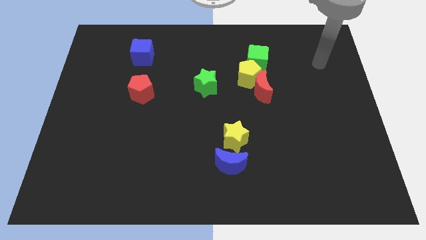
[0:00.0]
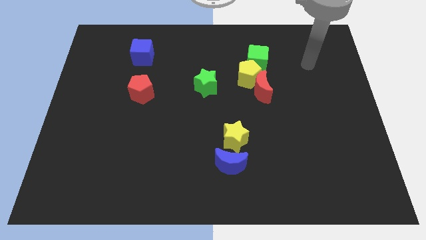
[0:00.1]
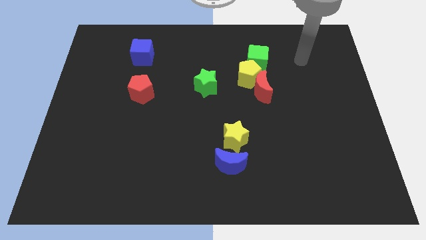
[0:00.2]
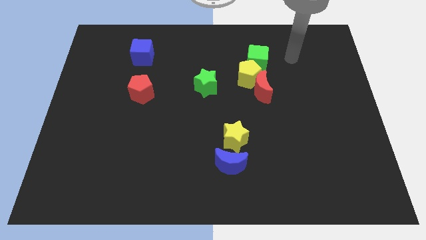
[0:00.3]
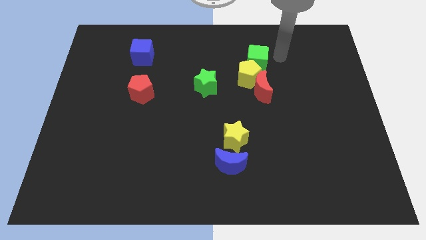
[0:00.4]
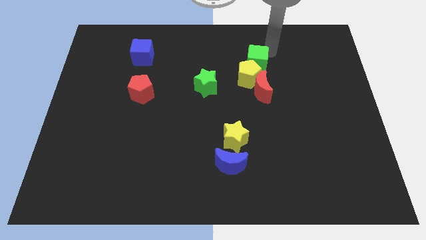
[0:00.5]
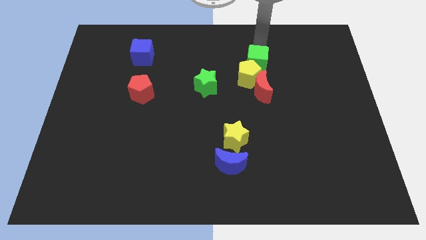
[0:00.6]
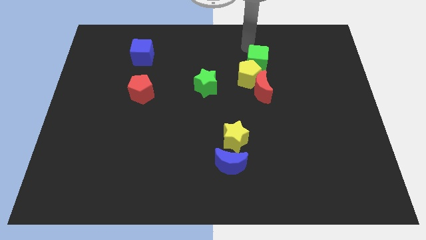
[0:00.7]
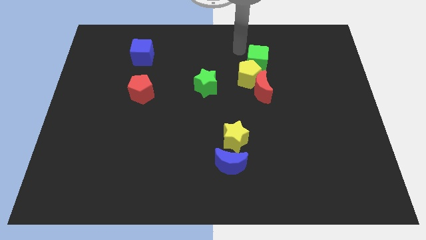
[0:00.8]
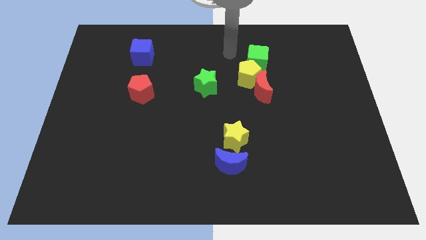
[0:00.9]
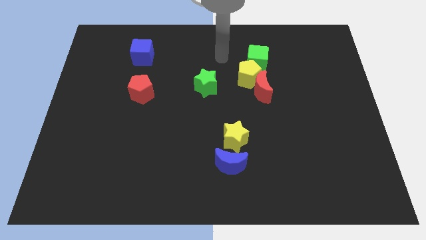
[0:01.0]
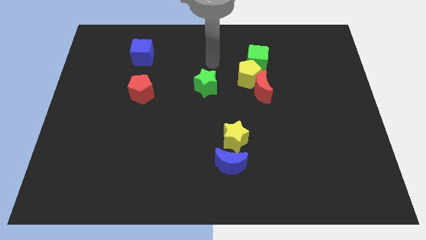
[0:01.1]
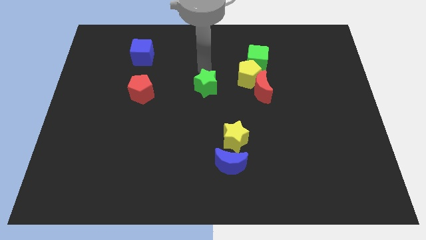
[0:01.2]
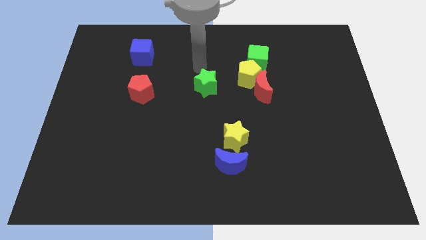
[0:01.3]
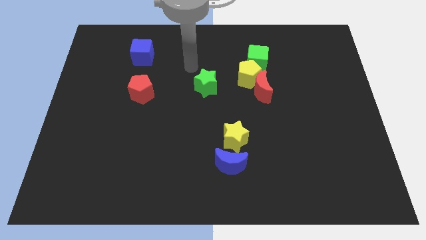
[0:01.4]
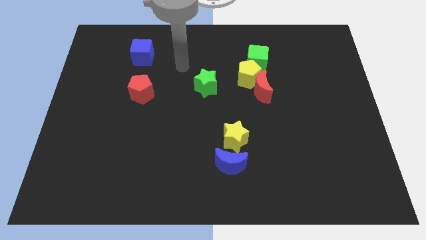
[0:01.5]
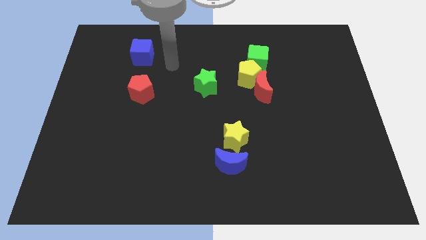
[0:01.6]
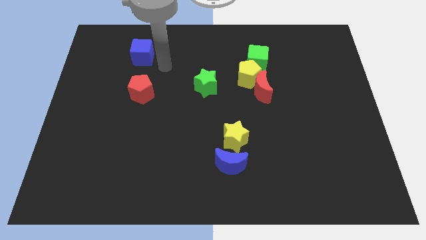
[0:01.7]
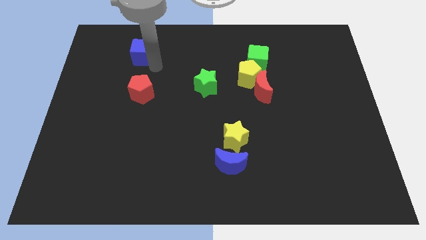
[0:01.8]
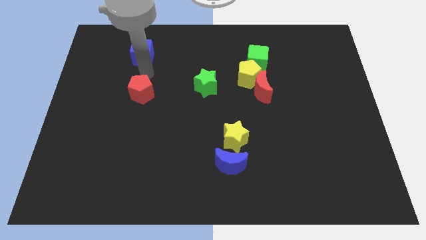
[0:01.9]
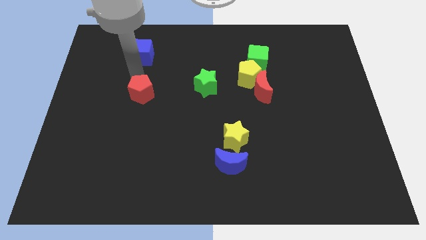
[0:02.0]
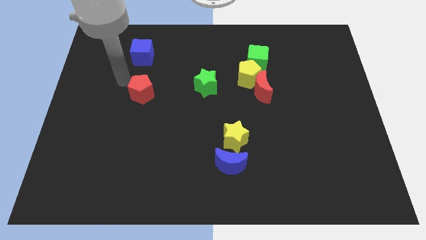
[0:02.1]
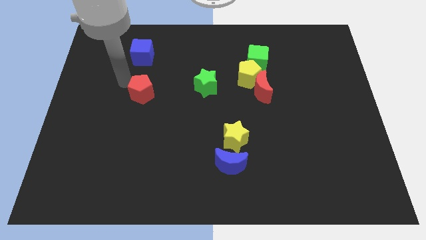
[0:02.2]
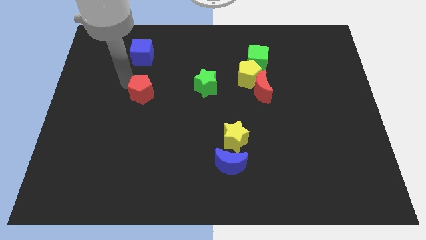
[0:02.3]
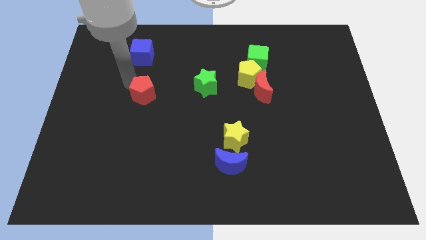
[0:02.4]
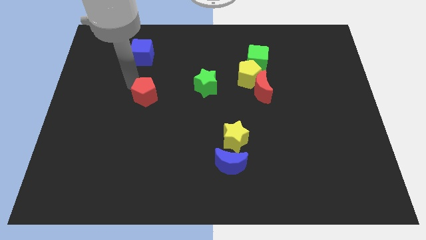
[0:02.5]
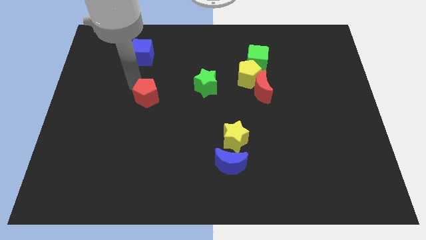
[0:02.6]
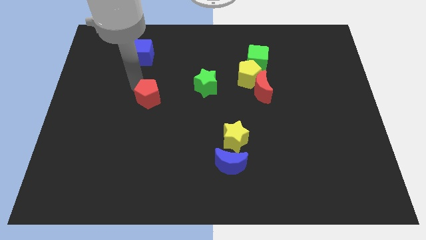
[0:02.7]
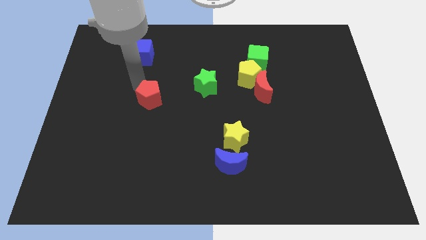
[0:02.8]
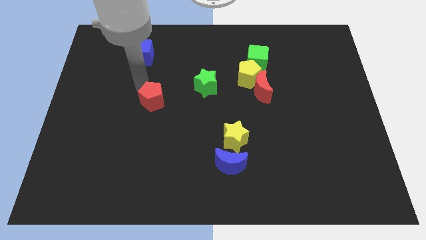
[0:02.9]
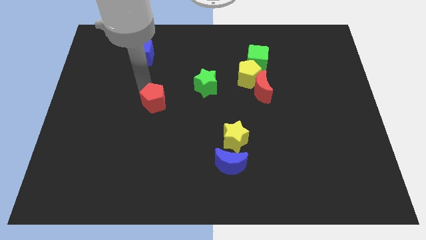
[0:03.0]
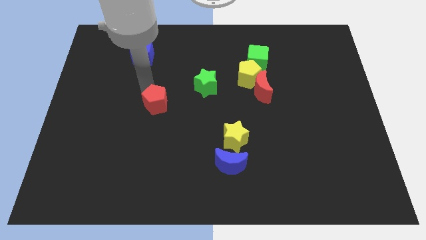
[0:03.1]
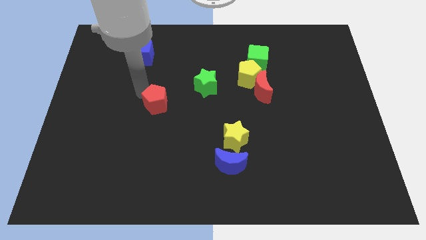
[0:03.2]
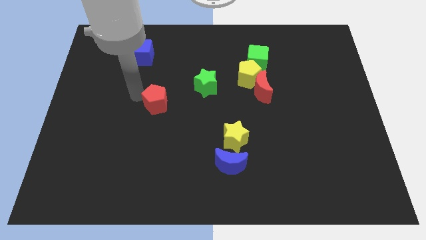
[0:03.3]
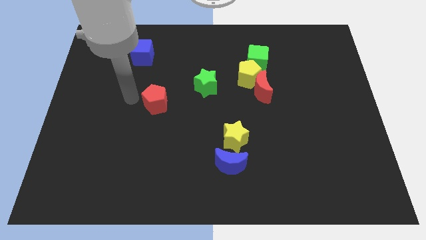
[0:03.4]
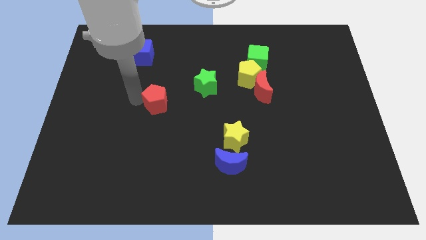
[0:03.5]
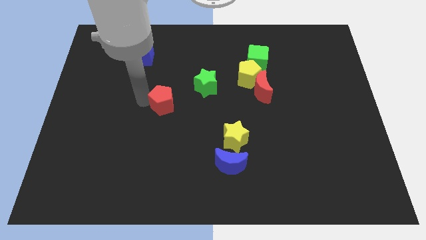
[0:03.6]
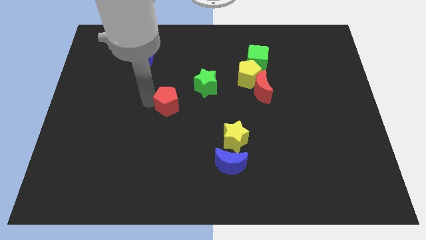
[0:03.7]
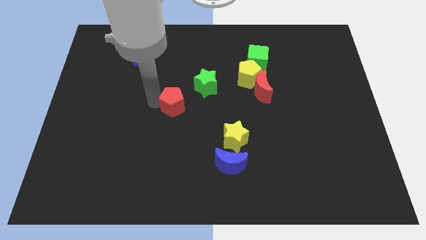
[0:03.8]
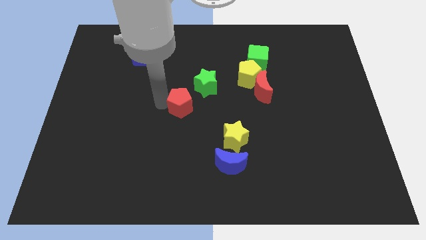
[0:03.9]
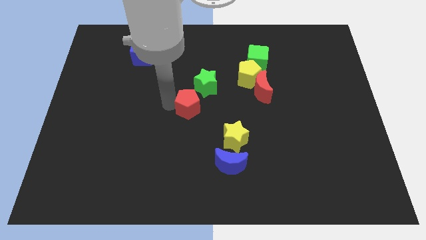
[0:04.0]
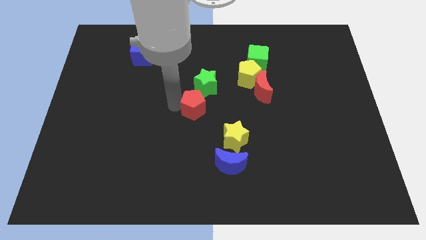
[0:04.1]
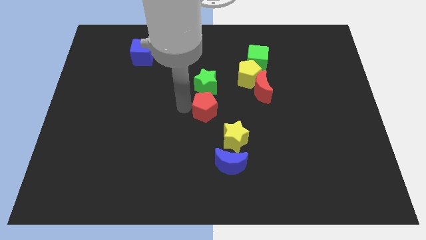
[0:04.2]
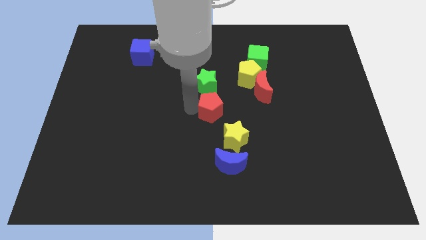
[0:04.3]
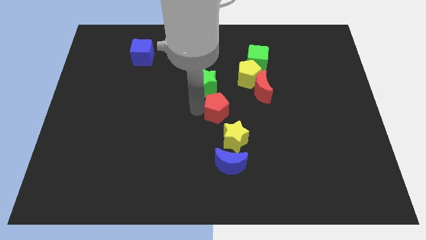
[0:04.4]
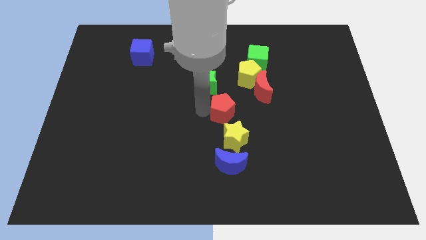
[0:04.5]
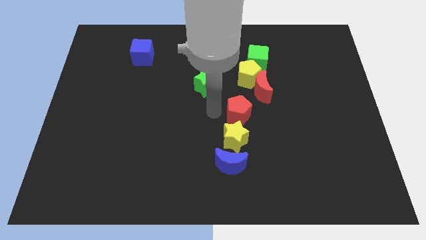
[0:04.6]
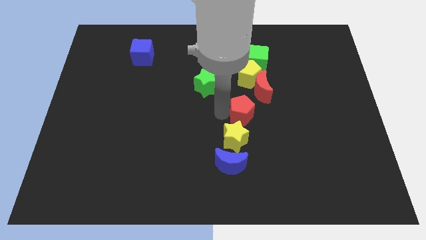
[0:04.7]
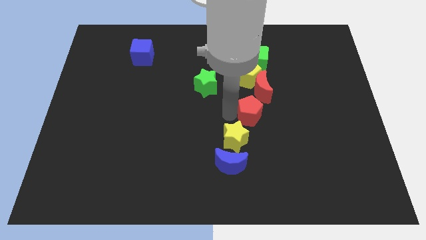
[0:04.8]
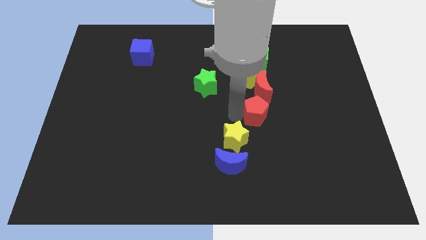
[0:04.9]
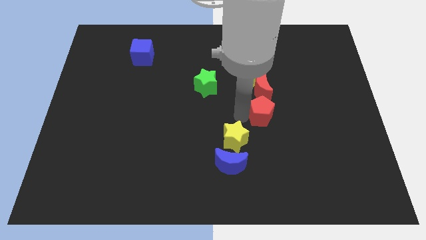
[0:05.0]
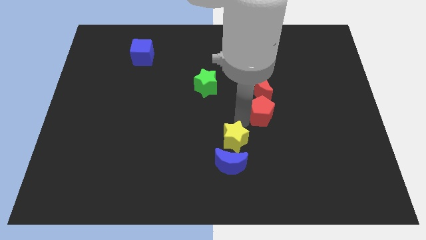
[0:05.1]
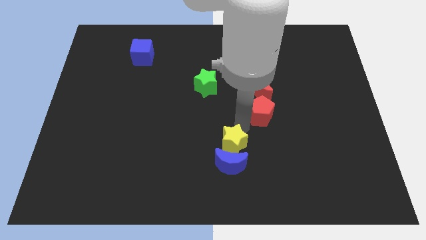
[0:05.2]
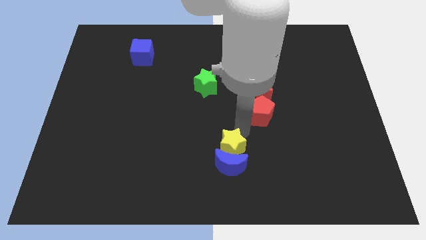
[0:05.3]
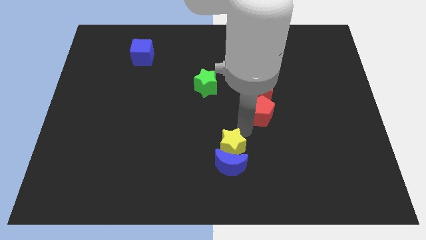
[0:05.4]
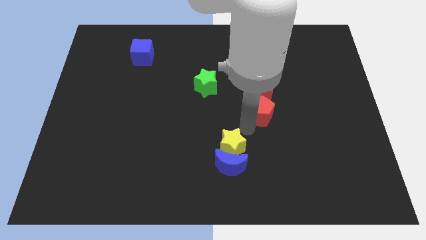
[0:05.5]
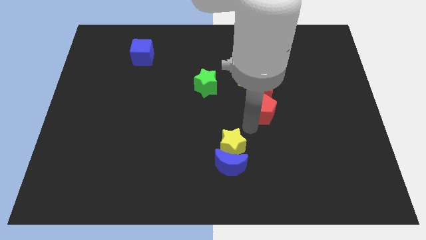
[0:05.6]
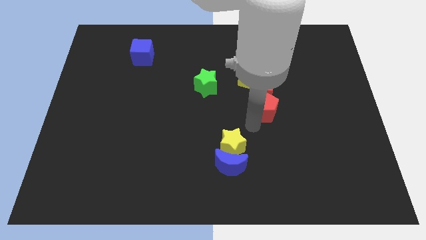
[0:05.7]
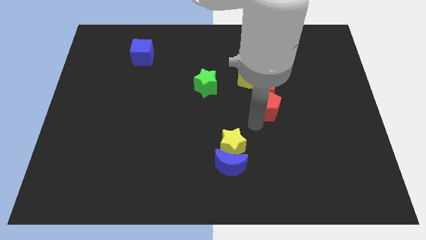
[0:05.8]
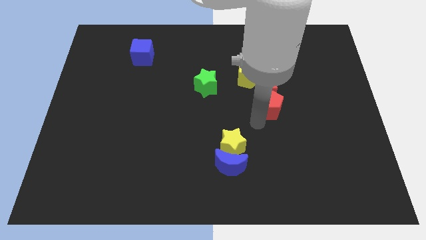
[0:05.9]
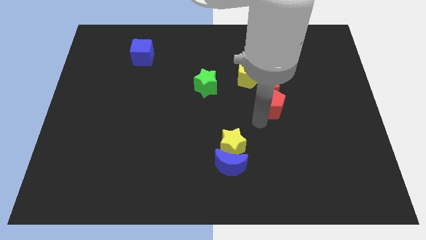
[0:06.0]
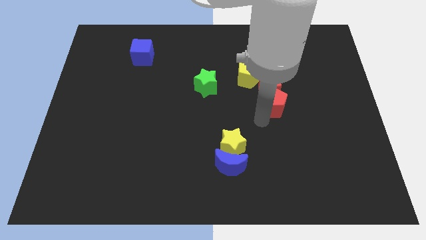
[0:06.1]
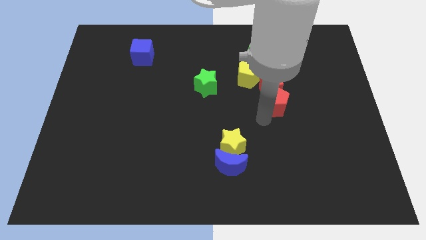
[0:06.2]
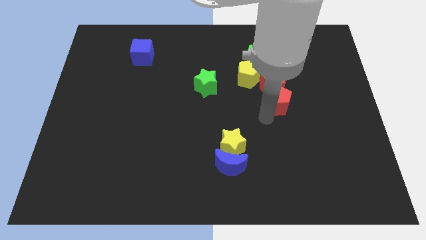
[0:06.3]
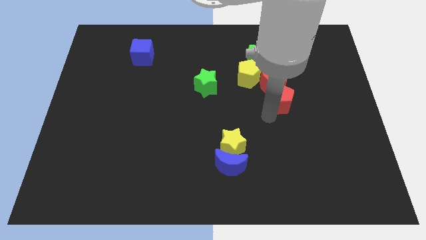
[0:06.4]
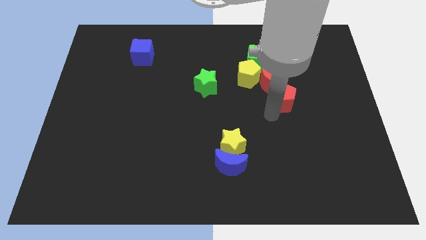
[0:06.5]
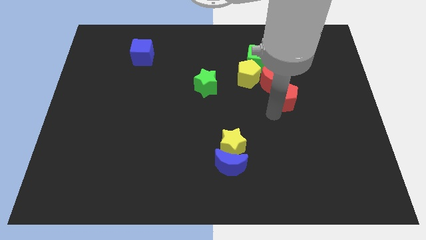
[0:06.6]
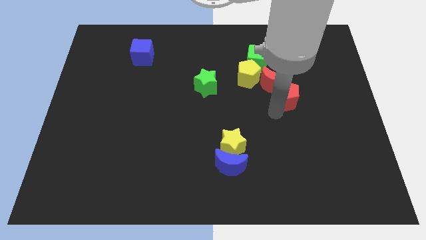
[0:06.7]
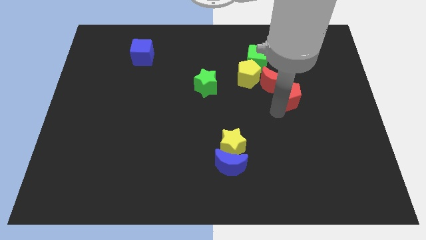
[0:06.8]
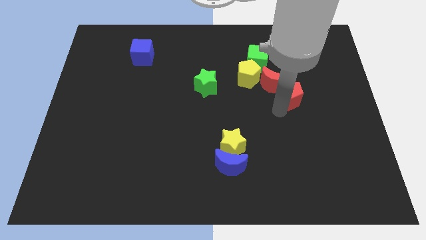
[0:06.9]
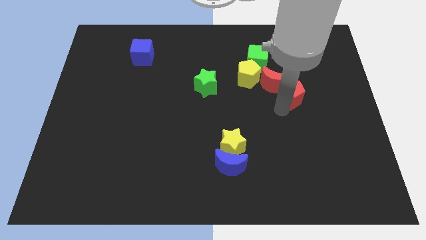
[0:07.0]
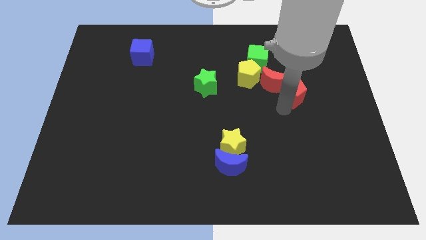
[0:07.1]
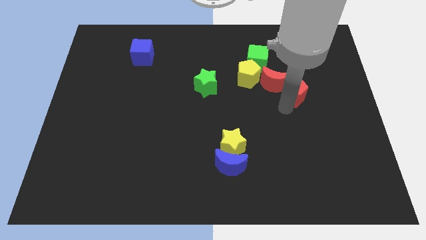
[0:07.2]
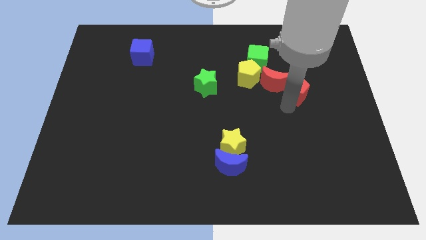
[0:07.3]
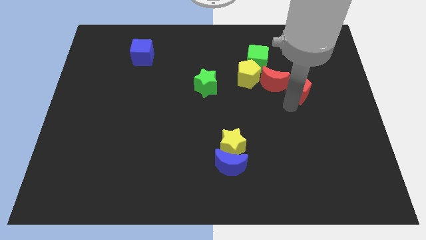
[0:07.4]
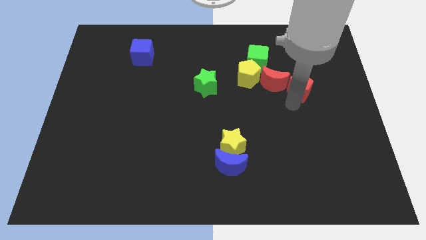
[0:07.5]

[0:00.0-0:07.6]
put the red pentagon right of the yellow pentagon
